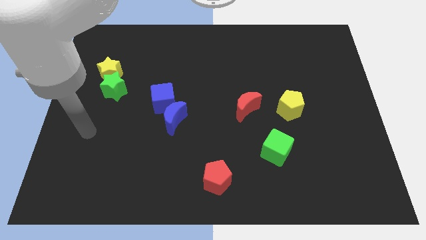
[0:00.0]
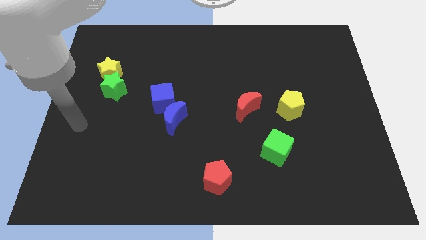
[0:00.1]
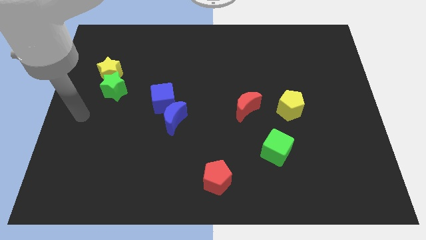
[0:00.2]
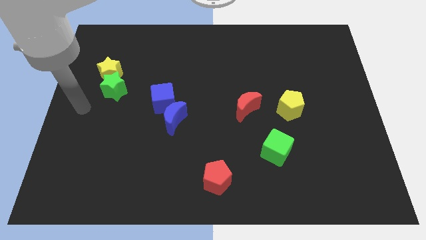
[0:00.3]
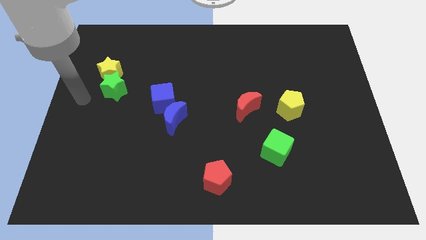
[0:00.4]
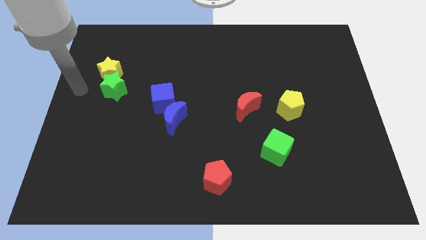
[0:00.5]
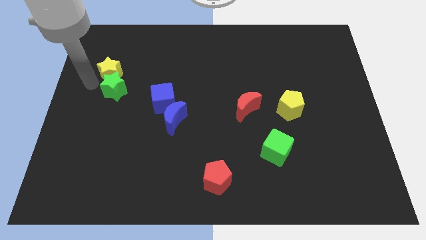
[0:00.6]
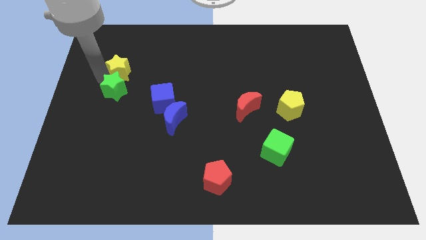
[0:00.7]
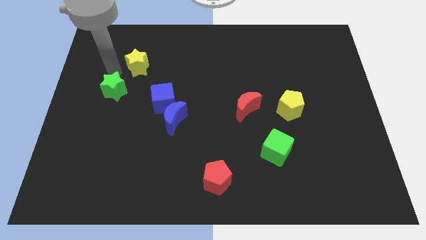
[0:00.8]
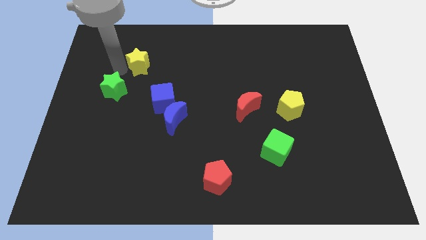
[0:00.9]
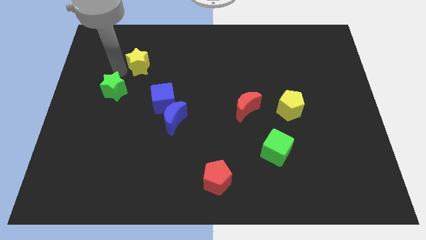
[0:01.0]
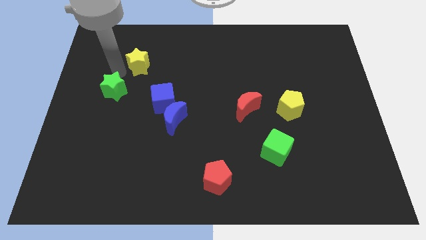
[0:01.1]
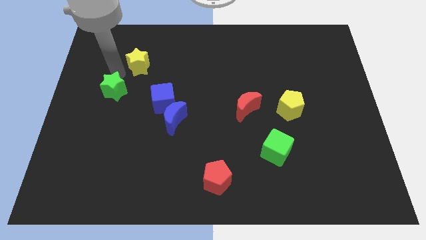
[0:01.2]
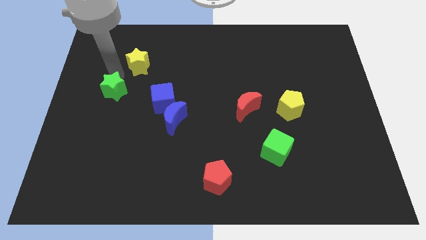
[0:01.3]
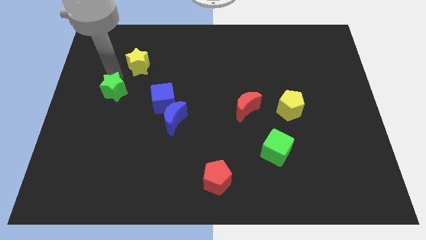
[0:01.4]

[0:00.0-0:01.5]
pull the green star apart from the yellow star

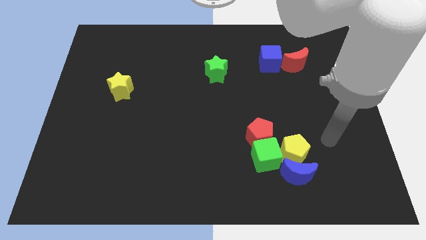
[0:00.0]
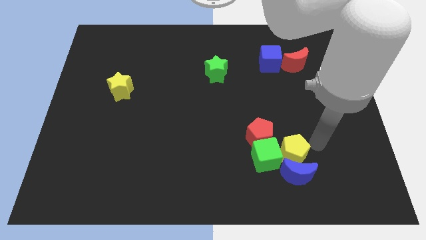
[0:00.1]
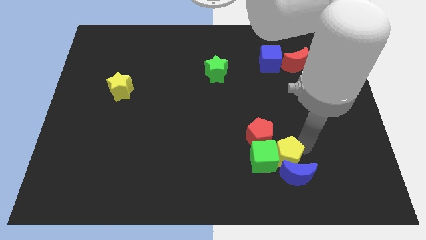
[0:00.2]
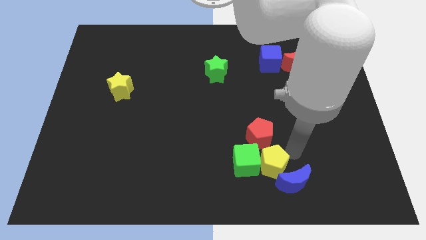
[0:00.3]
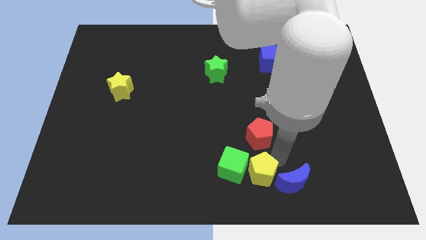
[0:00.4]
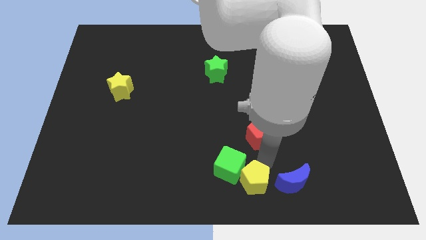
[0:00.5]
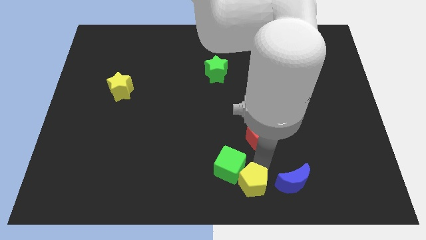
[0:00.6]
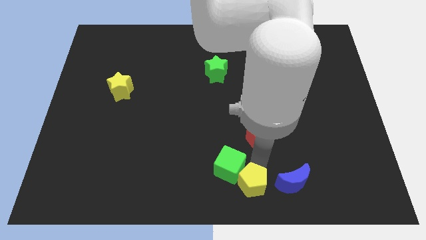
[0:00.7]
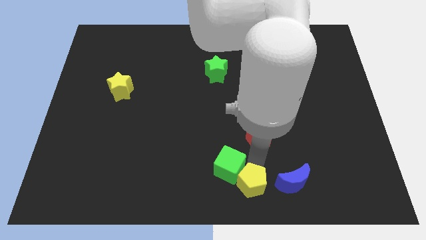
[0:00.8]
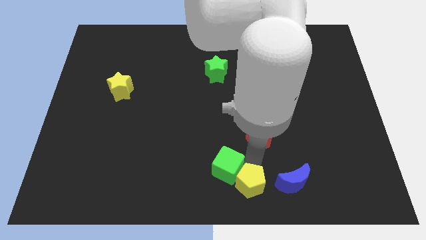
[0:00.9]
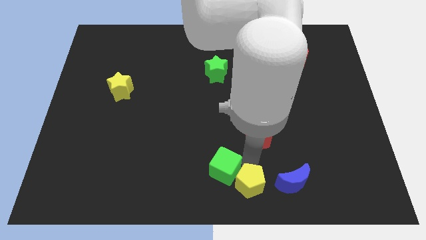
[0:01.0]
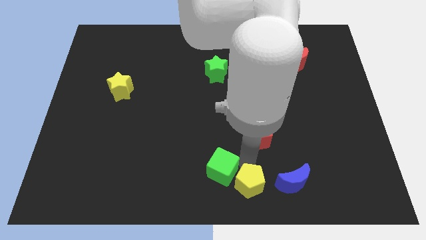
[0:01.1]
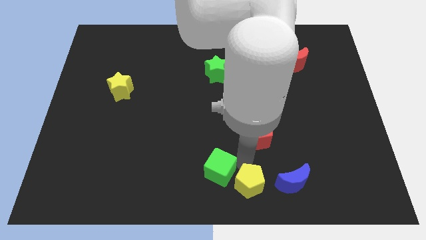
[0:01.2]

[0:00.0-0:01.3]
separate the green cube from the red pentagon, yellow pentagon, and blue moon

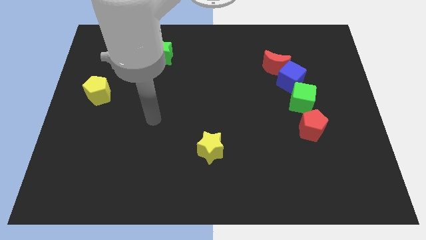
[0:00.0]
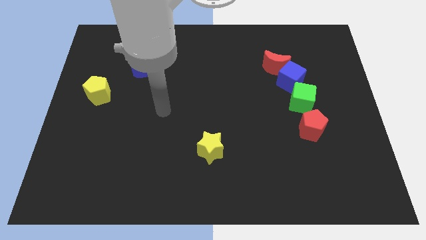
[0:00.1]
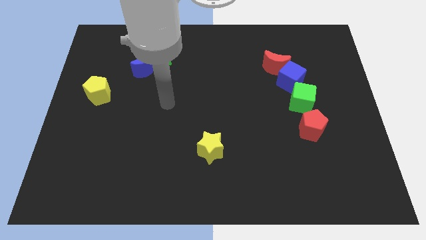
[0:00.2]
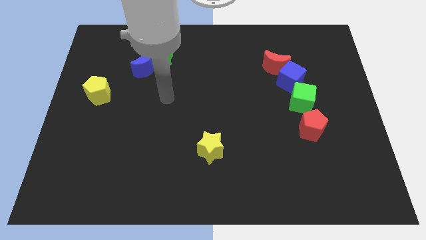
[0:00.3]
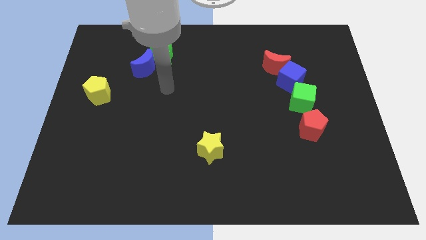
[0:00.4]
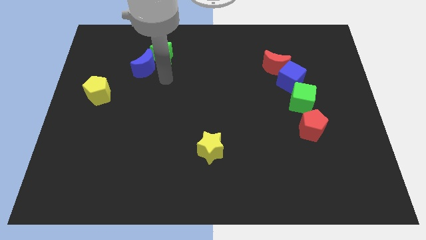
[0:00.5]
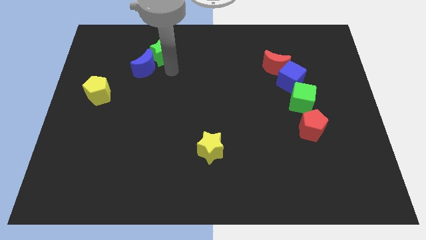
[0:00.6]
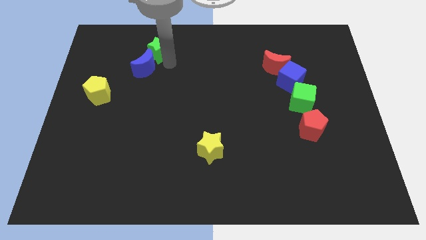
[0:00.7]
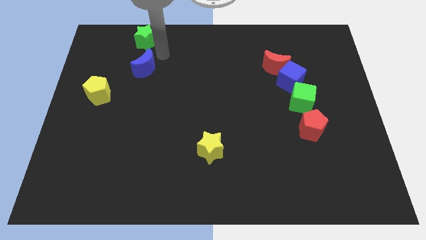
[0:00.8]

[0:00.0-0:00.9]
move the blue moon away from the green star

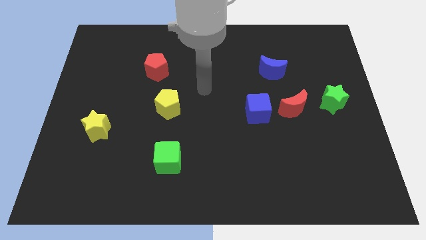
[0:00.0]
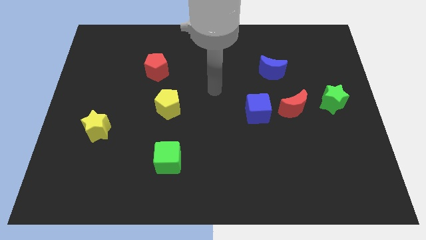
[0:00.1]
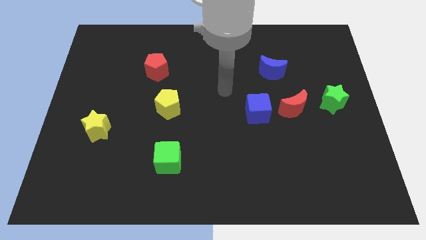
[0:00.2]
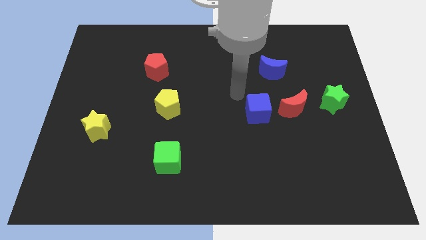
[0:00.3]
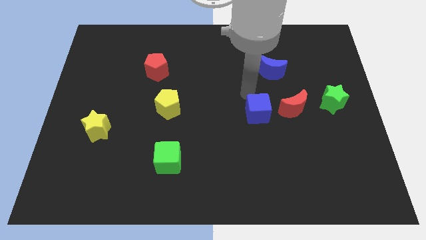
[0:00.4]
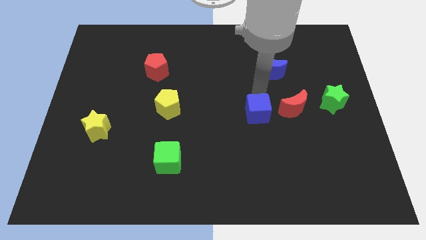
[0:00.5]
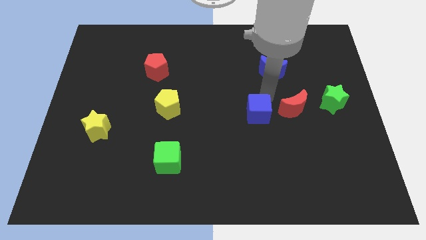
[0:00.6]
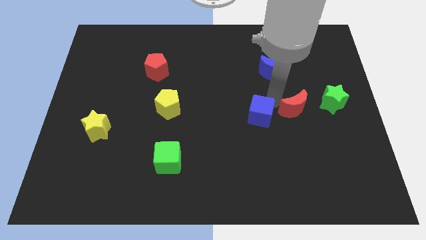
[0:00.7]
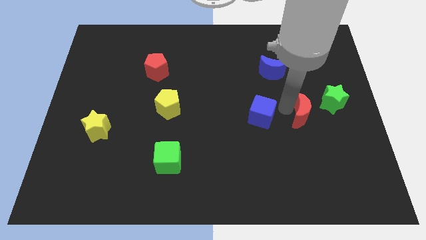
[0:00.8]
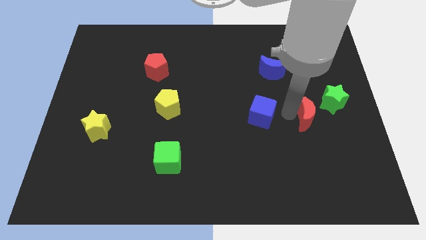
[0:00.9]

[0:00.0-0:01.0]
separate the blue cube from the red moon

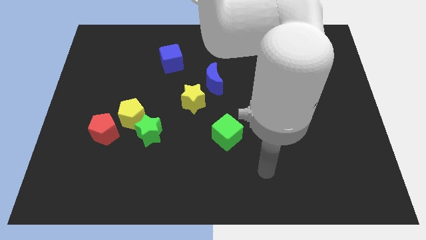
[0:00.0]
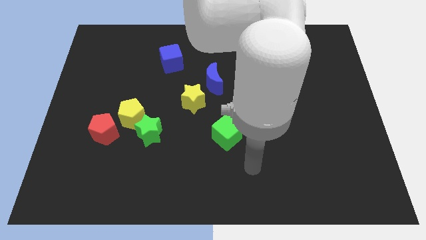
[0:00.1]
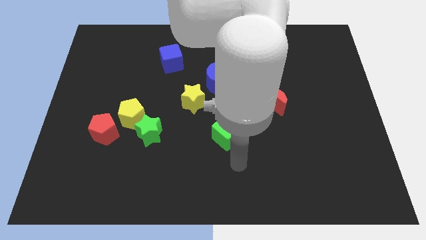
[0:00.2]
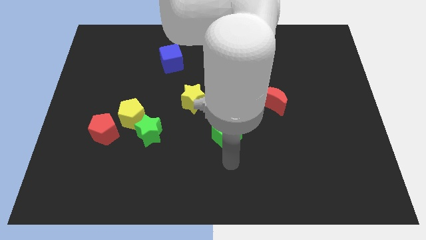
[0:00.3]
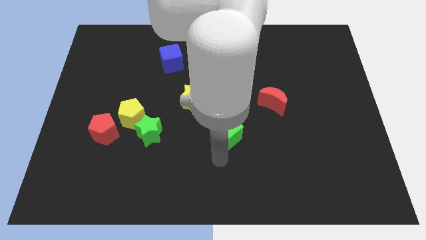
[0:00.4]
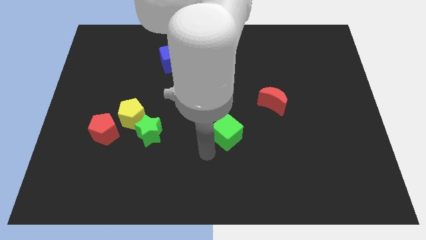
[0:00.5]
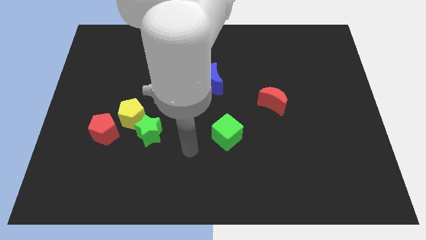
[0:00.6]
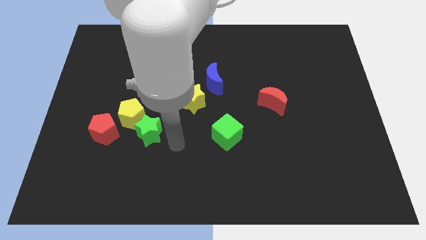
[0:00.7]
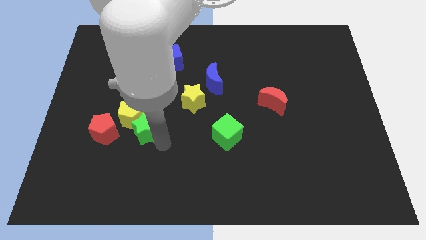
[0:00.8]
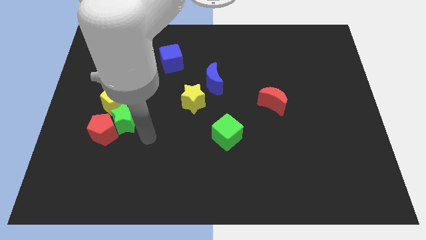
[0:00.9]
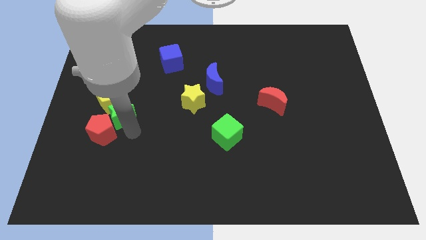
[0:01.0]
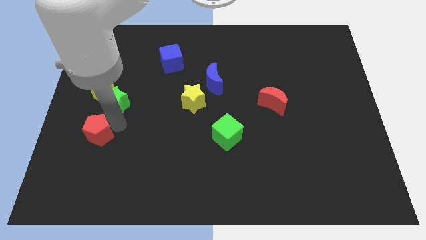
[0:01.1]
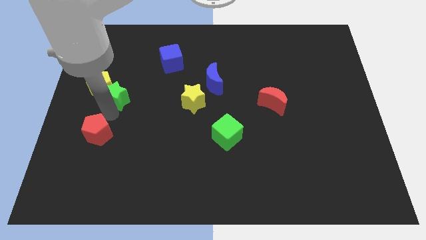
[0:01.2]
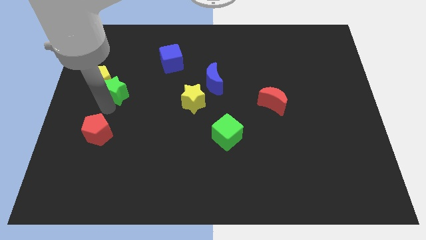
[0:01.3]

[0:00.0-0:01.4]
move the yellow pentagon away from the green star and red pentagon

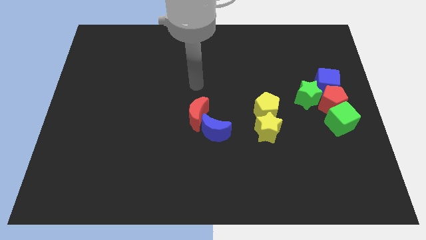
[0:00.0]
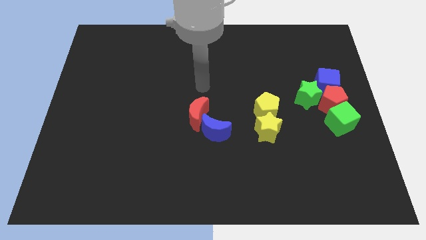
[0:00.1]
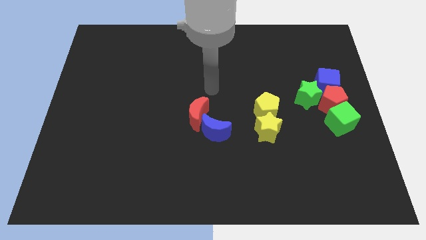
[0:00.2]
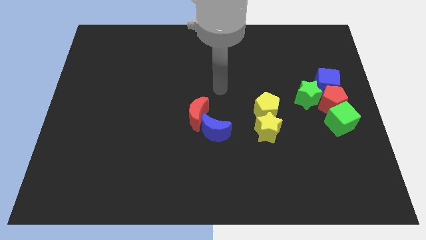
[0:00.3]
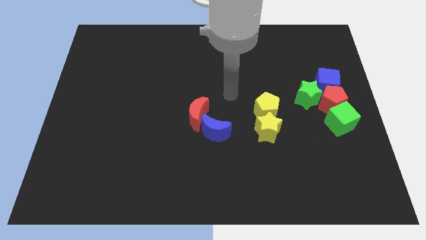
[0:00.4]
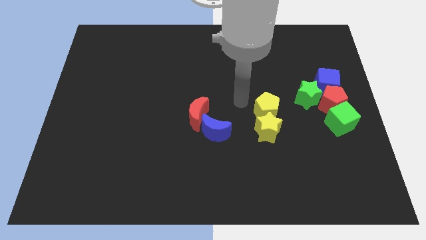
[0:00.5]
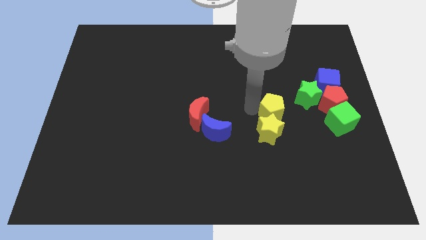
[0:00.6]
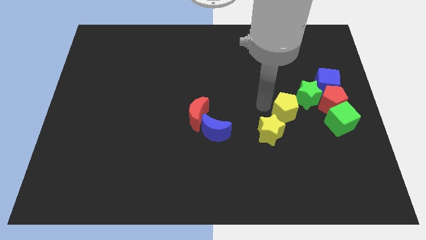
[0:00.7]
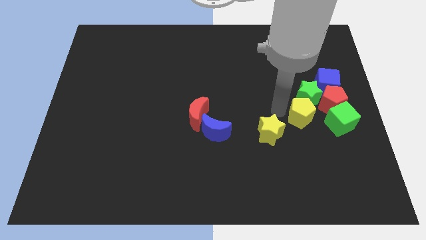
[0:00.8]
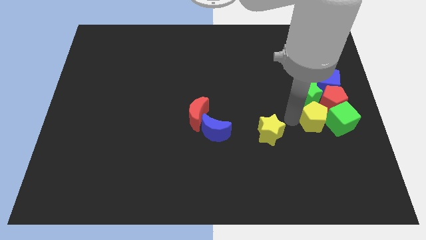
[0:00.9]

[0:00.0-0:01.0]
pull the yellow star apart from the yellow pentagon

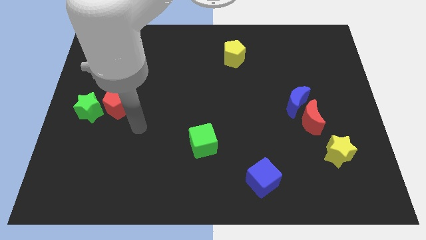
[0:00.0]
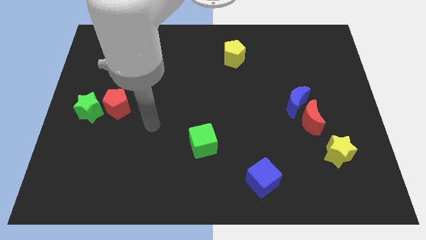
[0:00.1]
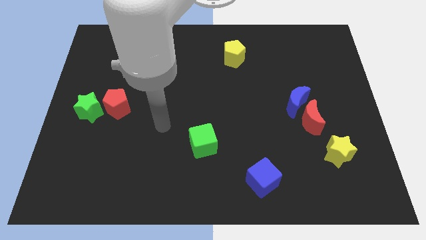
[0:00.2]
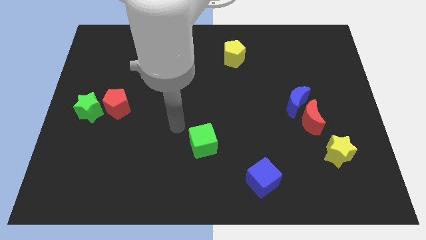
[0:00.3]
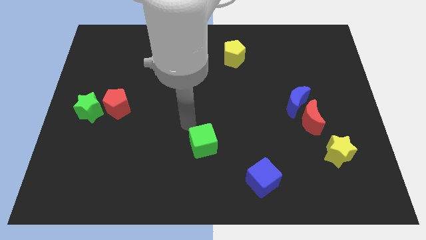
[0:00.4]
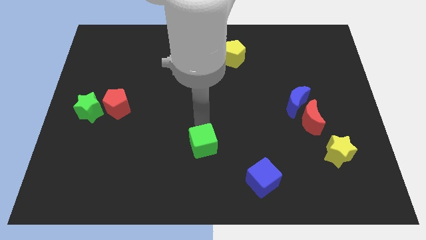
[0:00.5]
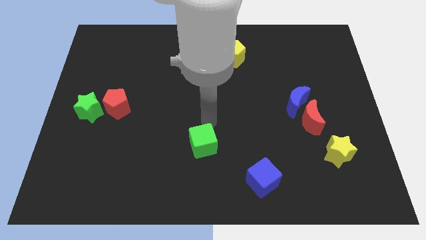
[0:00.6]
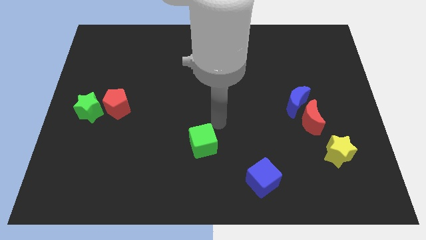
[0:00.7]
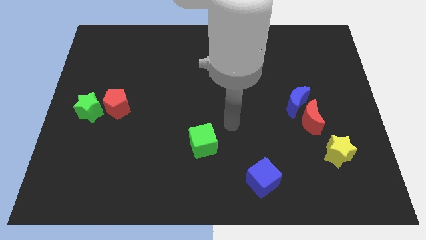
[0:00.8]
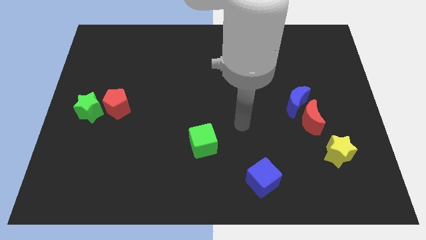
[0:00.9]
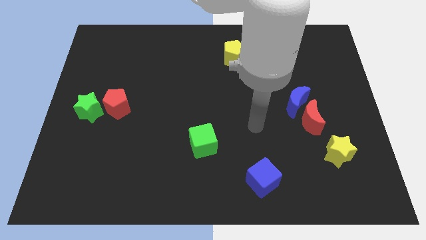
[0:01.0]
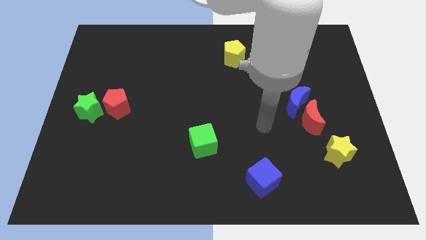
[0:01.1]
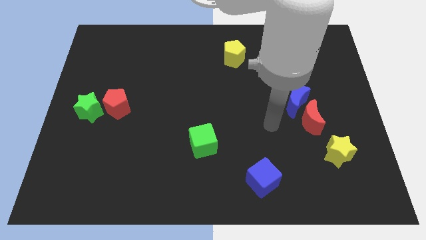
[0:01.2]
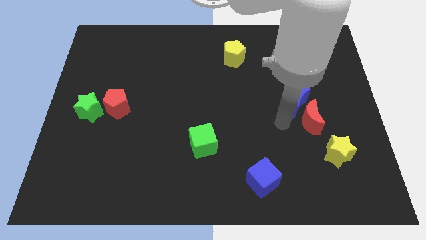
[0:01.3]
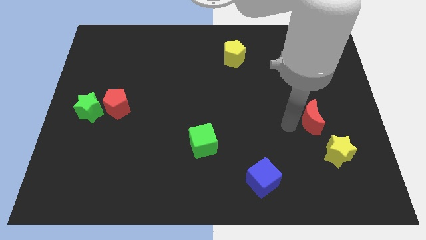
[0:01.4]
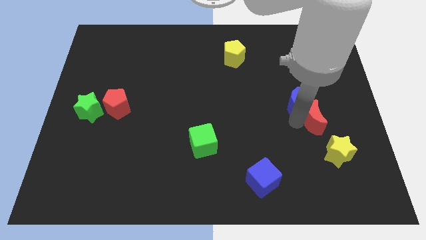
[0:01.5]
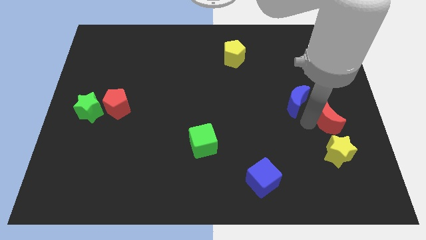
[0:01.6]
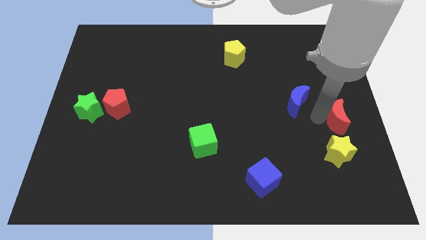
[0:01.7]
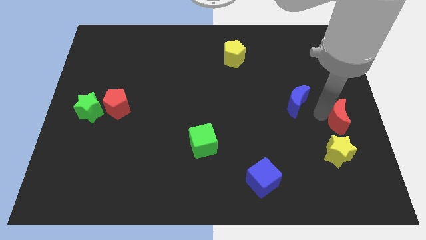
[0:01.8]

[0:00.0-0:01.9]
separate the blue moon from the red moon

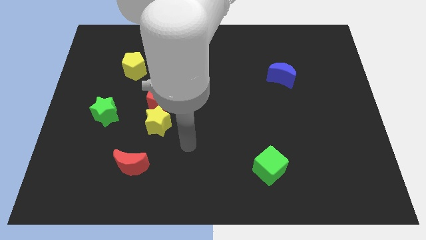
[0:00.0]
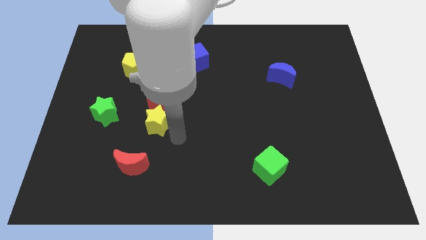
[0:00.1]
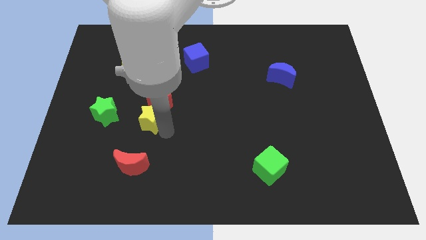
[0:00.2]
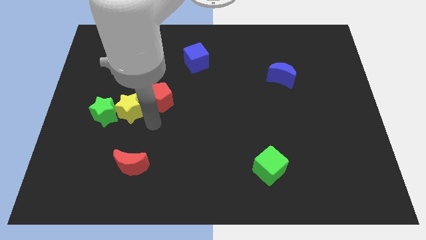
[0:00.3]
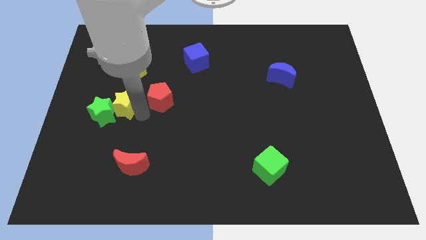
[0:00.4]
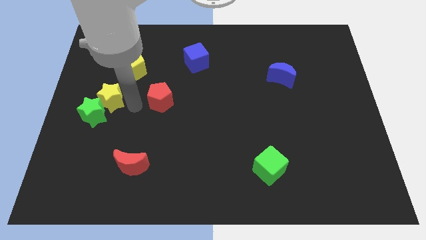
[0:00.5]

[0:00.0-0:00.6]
move the red pentagon away from the yellow star
